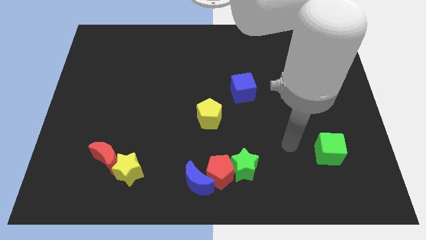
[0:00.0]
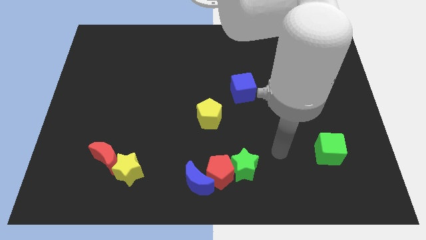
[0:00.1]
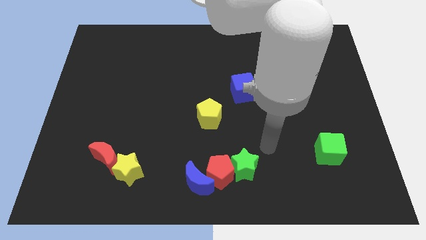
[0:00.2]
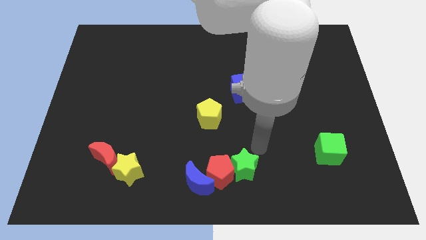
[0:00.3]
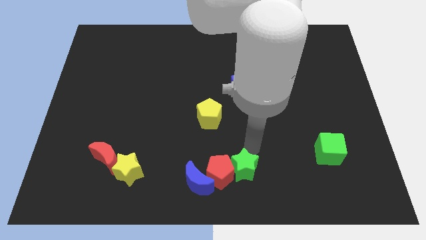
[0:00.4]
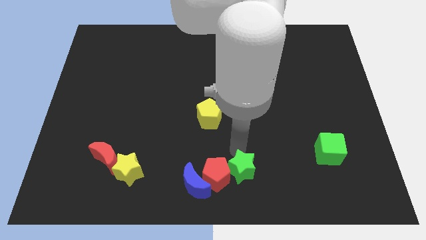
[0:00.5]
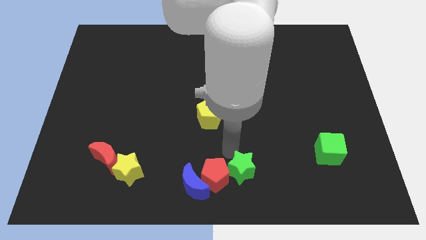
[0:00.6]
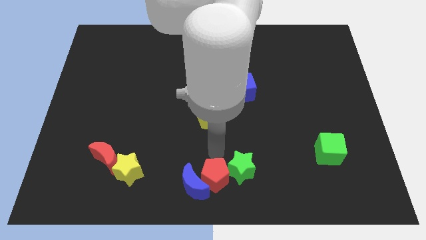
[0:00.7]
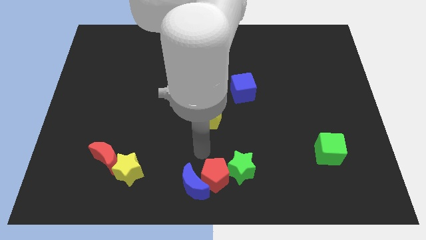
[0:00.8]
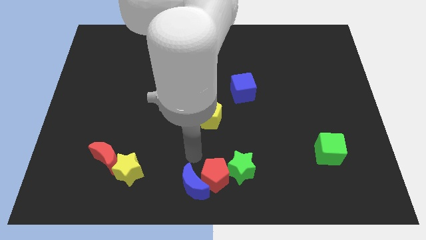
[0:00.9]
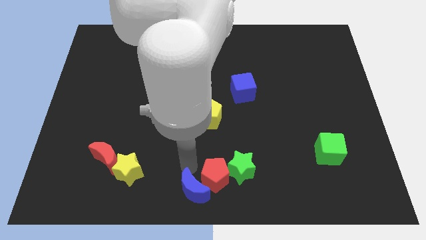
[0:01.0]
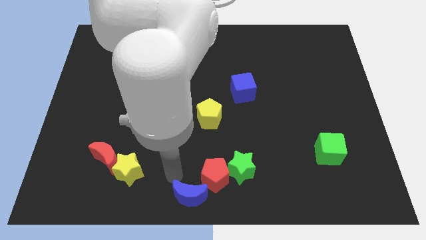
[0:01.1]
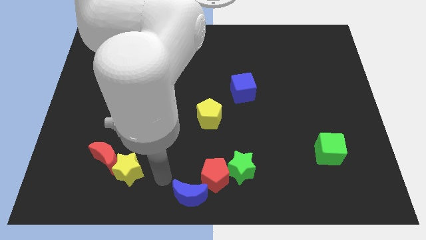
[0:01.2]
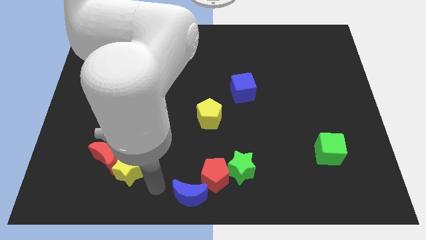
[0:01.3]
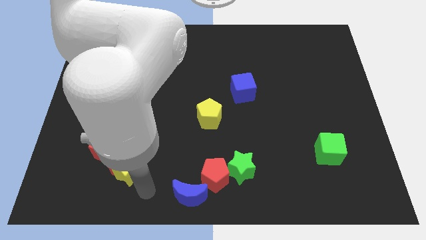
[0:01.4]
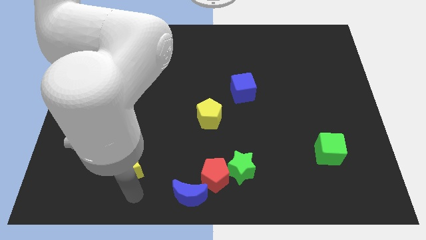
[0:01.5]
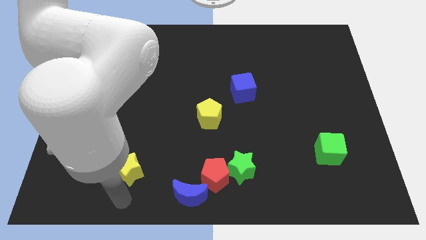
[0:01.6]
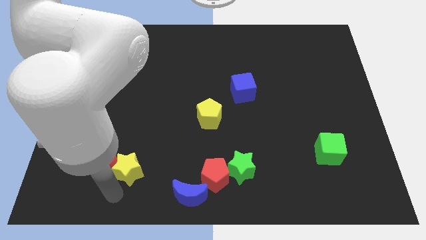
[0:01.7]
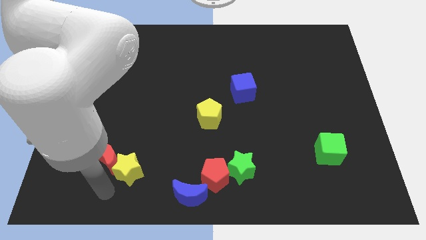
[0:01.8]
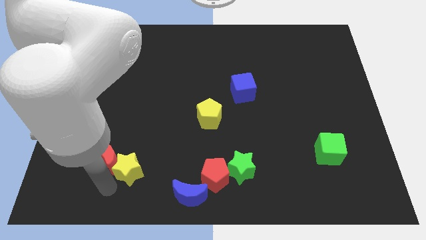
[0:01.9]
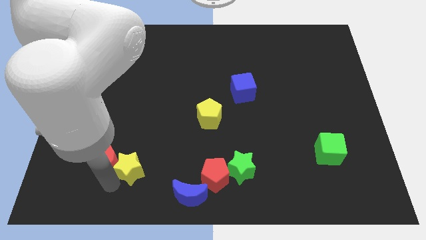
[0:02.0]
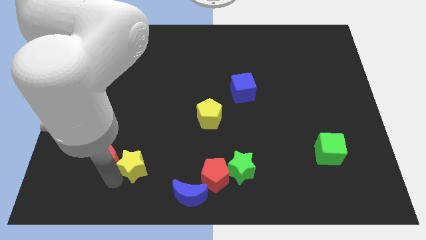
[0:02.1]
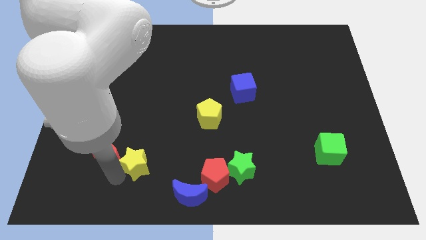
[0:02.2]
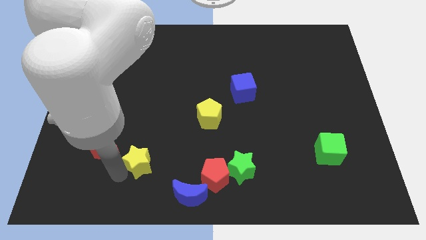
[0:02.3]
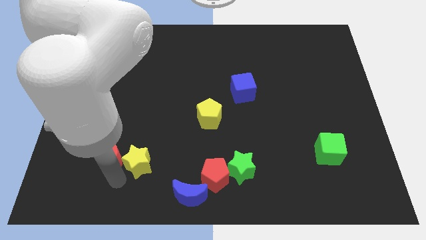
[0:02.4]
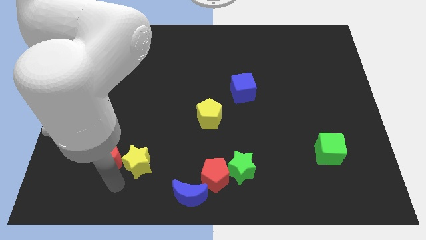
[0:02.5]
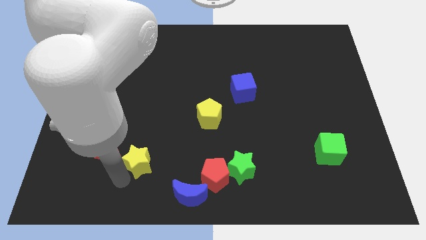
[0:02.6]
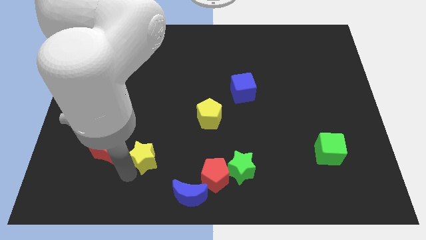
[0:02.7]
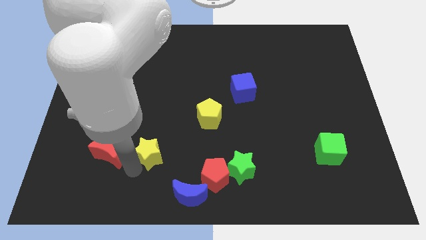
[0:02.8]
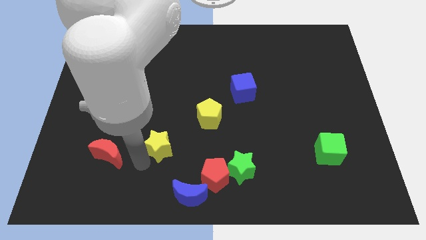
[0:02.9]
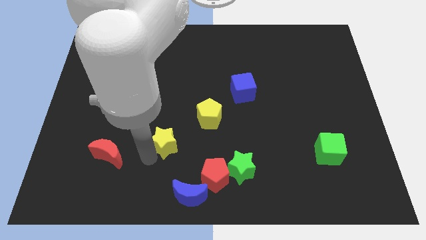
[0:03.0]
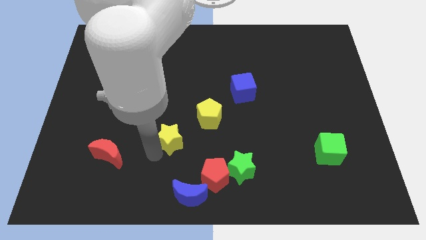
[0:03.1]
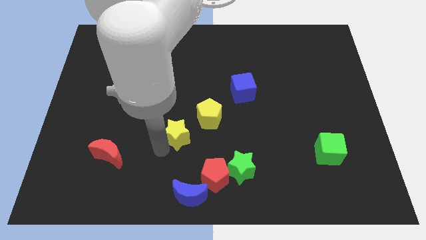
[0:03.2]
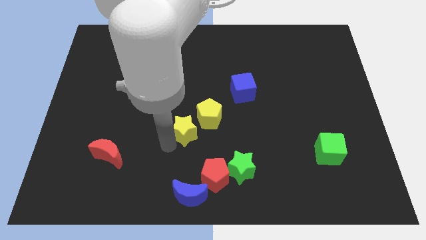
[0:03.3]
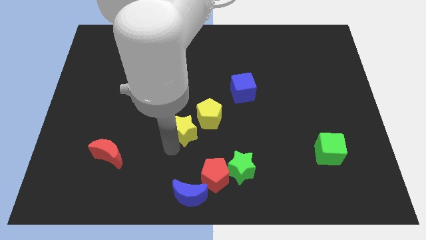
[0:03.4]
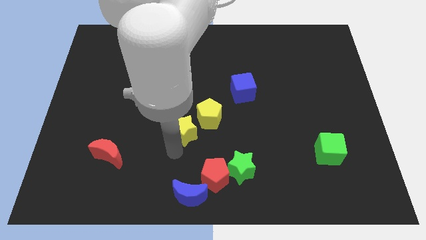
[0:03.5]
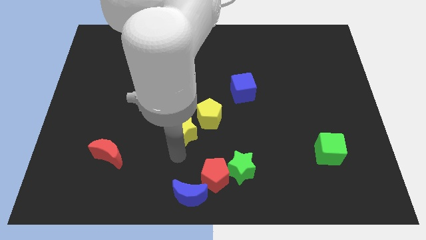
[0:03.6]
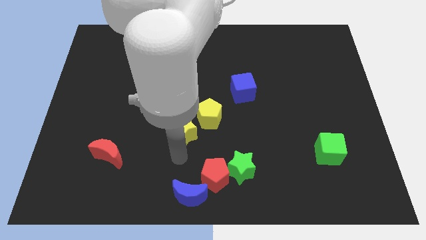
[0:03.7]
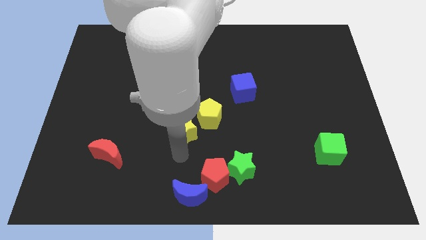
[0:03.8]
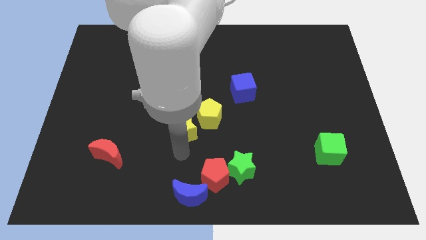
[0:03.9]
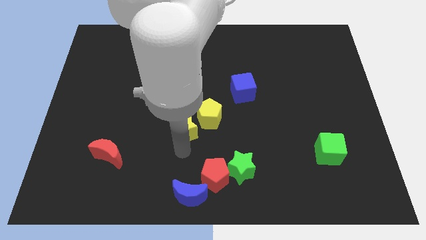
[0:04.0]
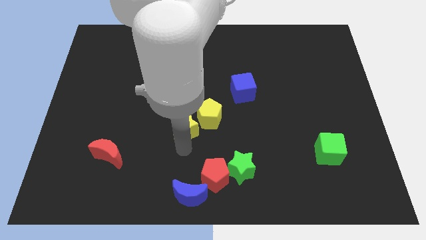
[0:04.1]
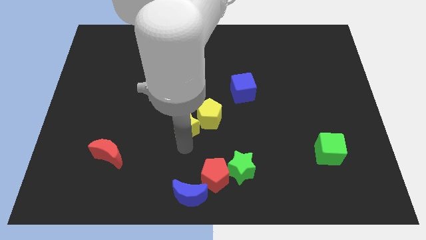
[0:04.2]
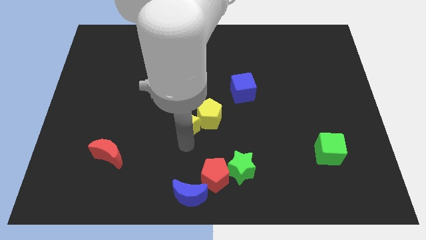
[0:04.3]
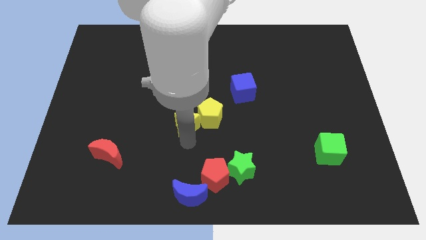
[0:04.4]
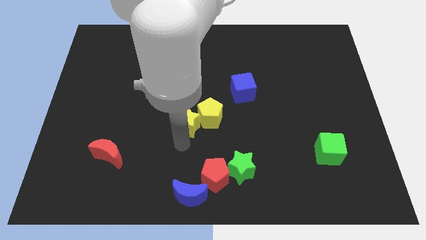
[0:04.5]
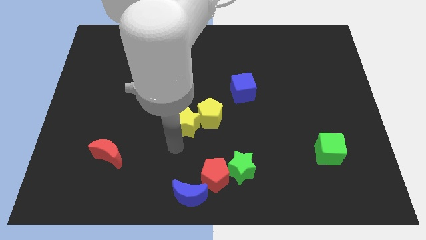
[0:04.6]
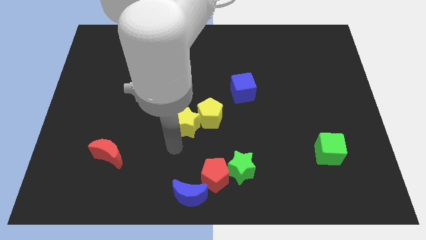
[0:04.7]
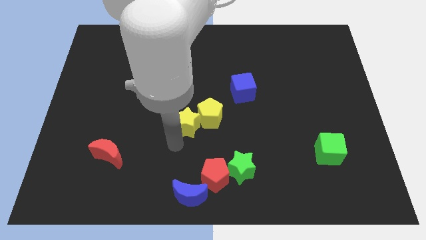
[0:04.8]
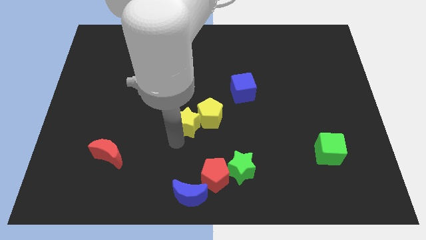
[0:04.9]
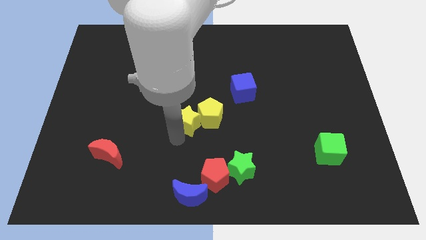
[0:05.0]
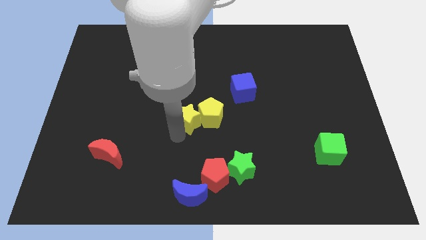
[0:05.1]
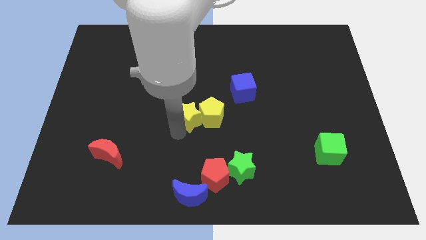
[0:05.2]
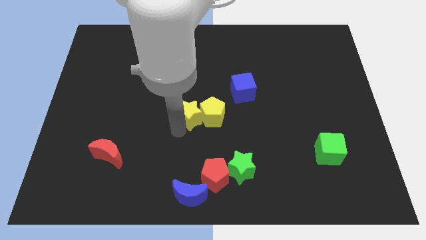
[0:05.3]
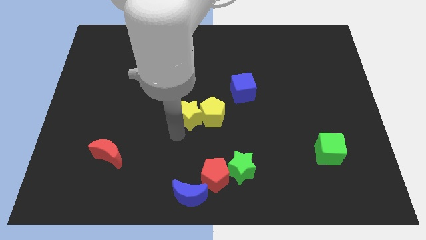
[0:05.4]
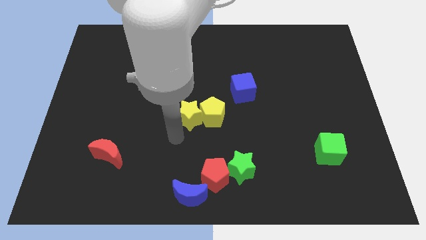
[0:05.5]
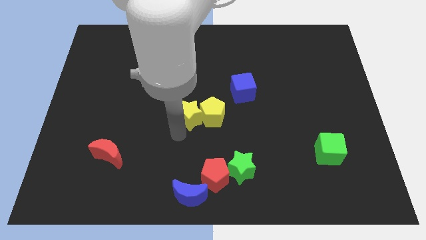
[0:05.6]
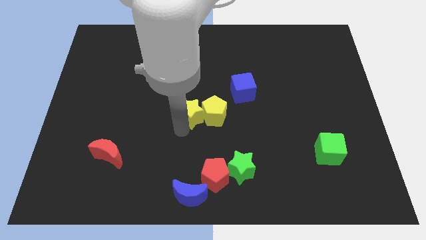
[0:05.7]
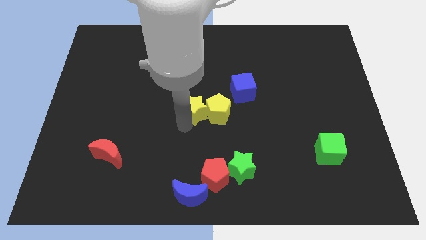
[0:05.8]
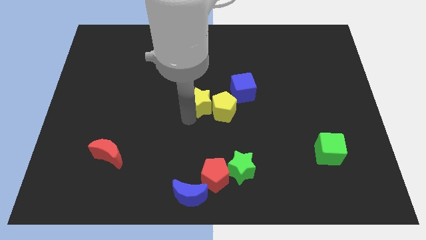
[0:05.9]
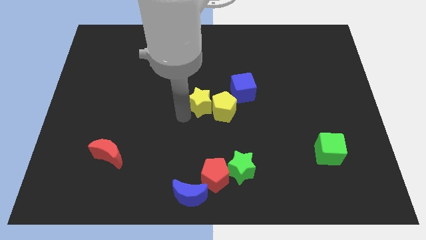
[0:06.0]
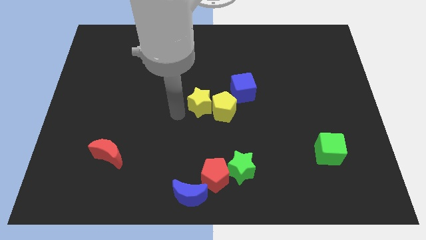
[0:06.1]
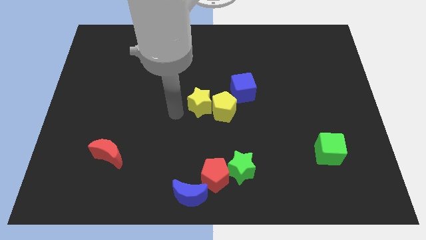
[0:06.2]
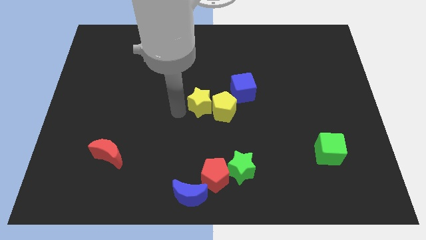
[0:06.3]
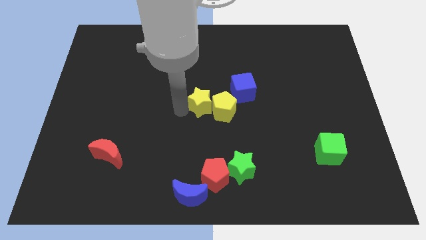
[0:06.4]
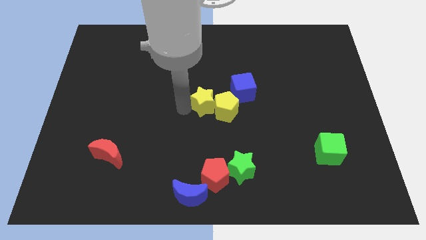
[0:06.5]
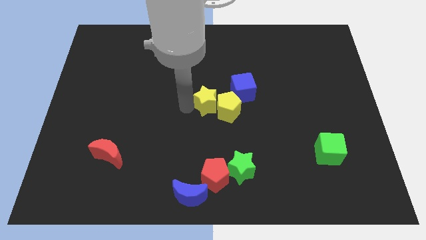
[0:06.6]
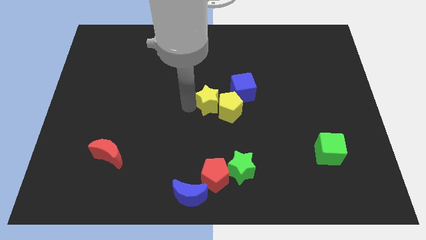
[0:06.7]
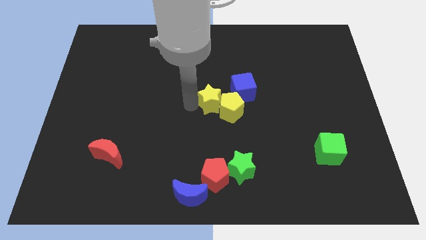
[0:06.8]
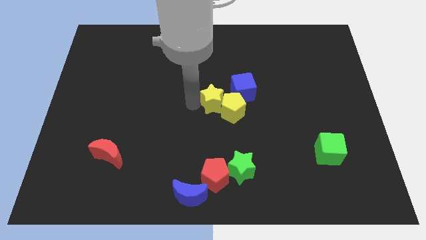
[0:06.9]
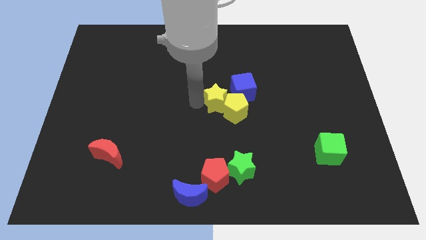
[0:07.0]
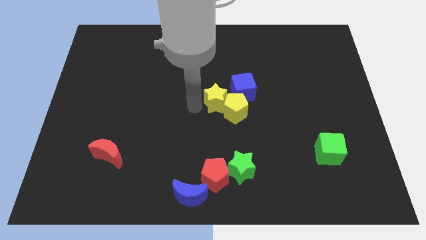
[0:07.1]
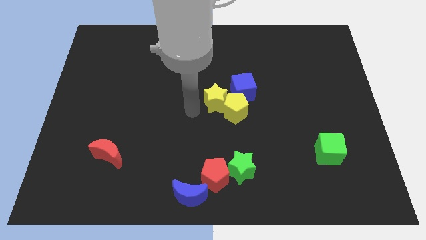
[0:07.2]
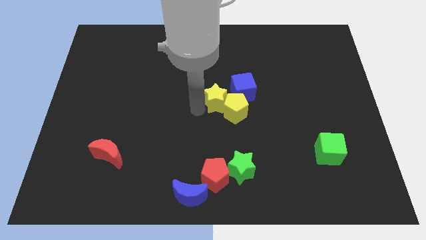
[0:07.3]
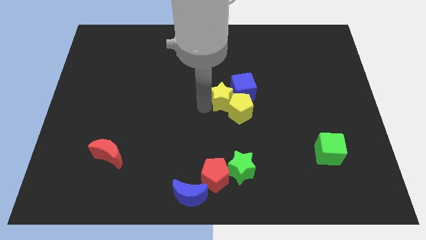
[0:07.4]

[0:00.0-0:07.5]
move the yellow star next to the blue cube
